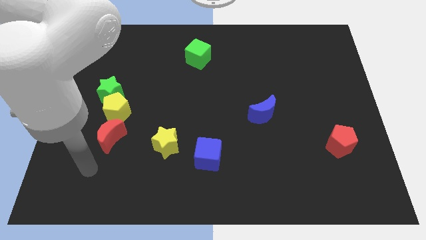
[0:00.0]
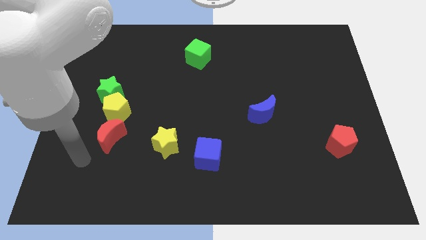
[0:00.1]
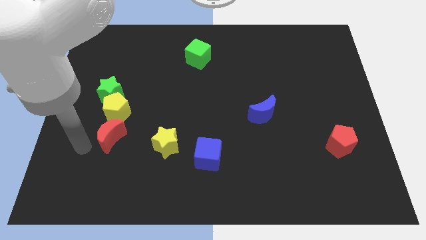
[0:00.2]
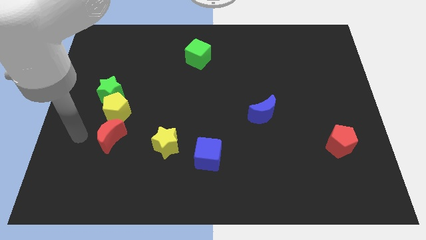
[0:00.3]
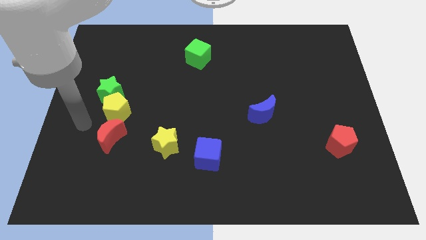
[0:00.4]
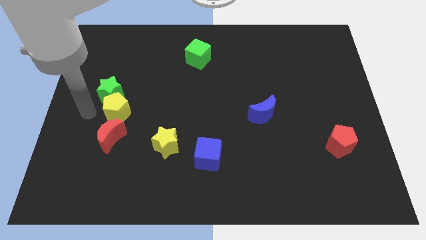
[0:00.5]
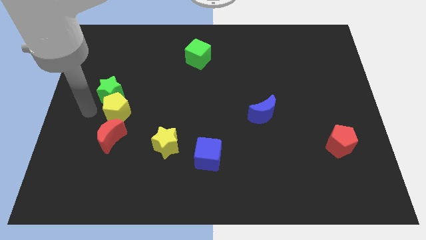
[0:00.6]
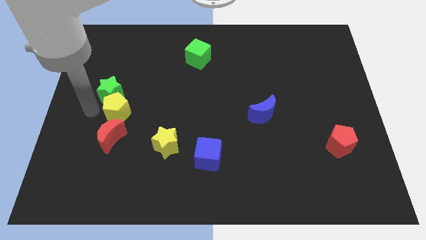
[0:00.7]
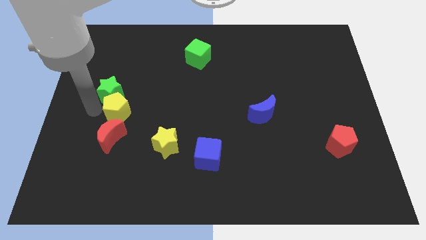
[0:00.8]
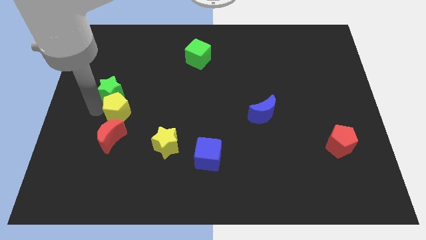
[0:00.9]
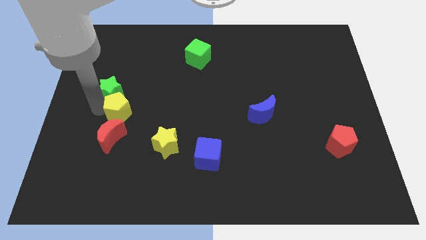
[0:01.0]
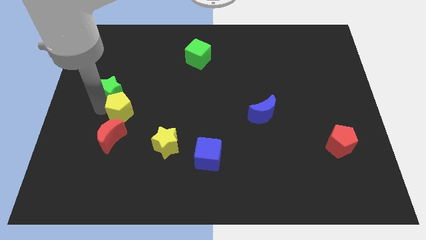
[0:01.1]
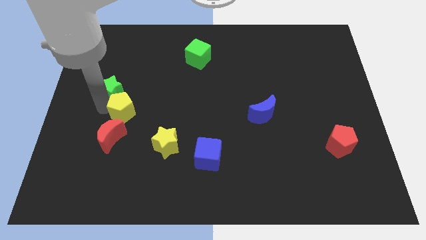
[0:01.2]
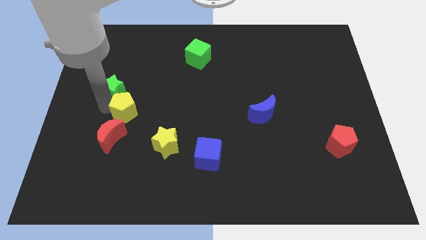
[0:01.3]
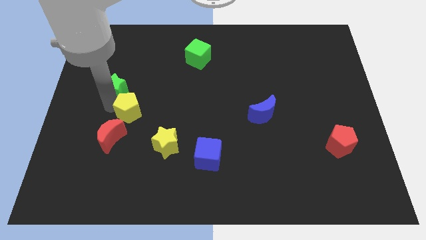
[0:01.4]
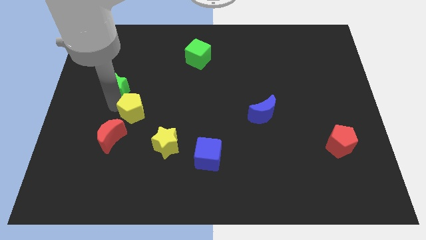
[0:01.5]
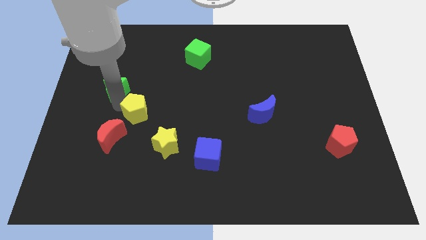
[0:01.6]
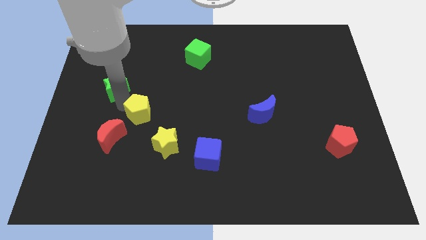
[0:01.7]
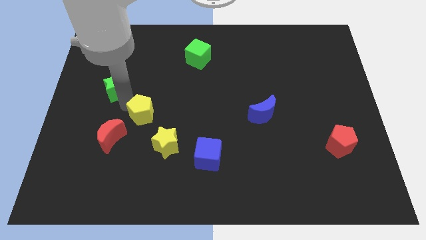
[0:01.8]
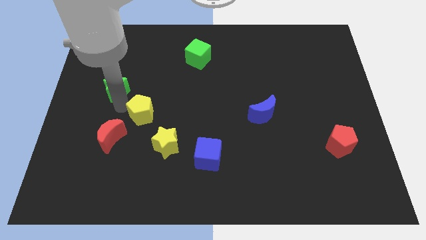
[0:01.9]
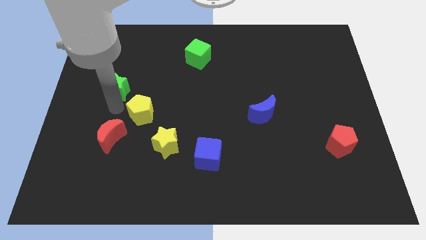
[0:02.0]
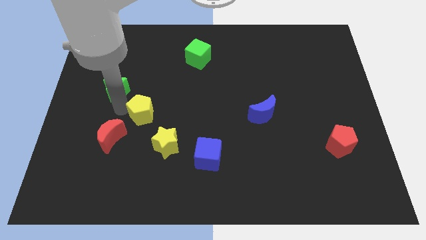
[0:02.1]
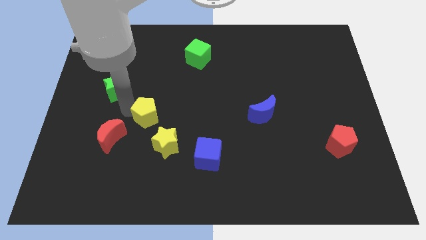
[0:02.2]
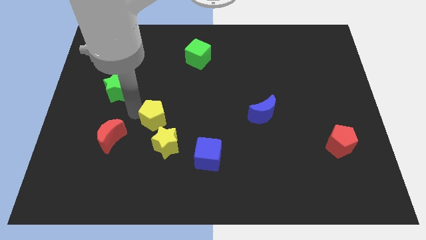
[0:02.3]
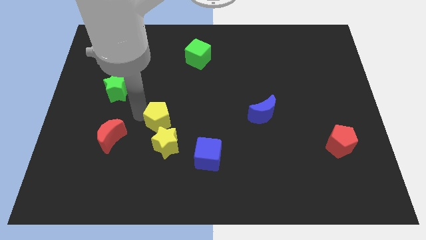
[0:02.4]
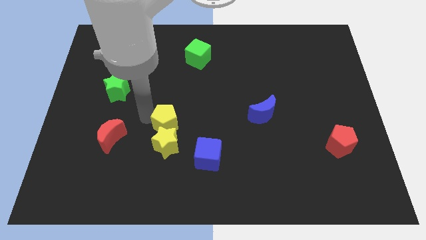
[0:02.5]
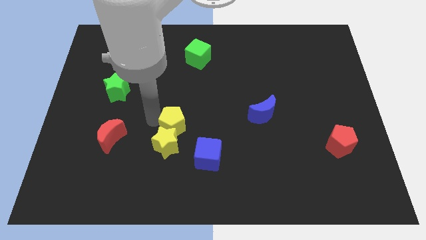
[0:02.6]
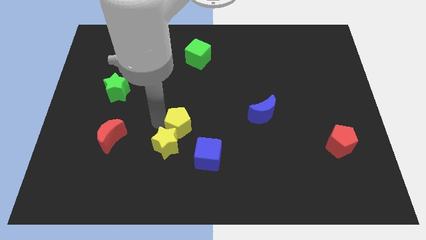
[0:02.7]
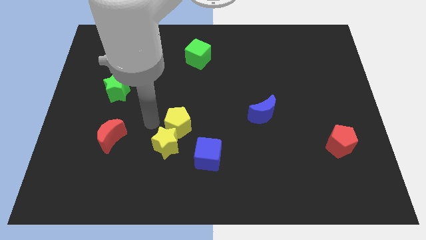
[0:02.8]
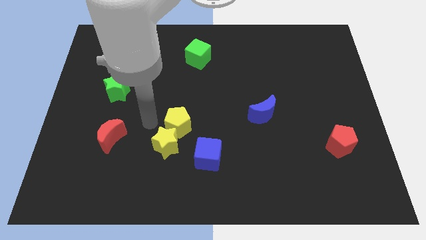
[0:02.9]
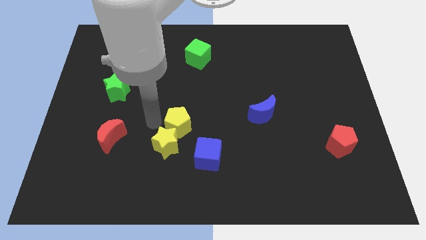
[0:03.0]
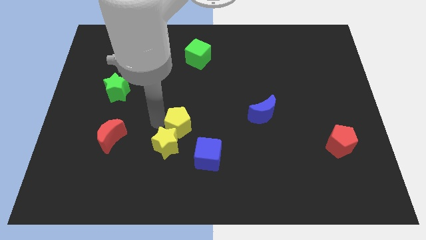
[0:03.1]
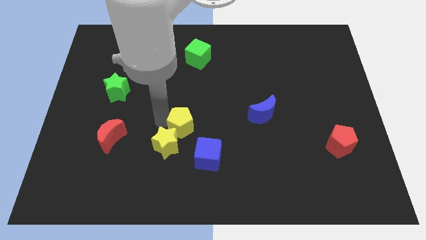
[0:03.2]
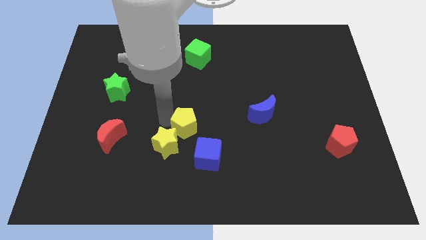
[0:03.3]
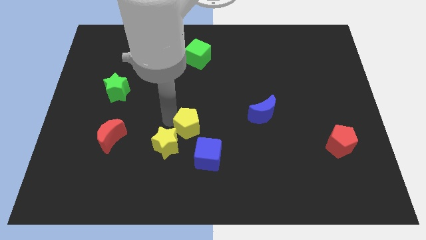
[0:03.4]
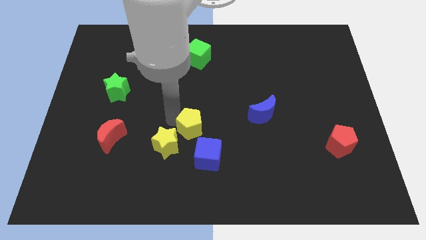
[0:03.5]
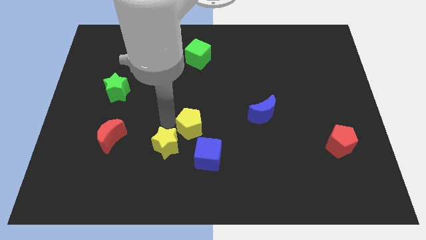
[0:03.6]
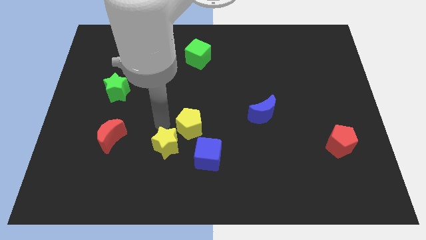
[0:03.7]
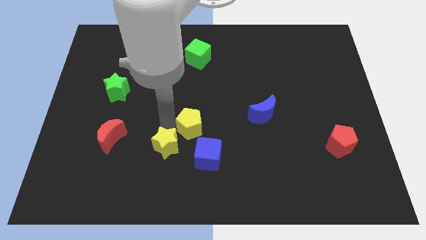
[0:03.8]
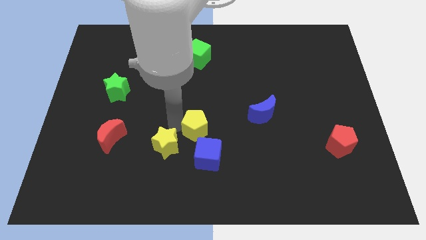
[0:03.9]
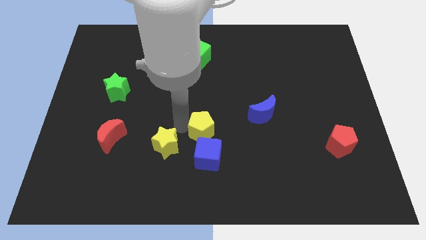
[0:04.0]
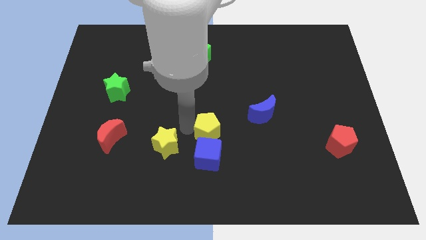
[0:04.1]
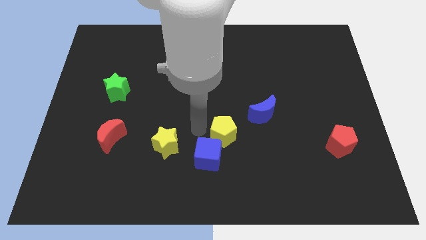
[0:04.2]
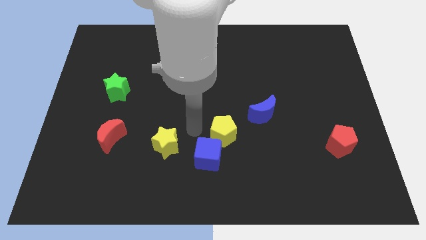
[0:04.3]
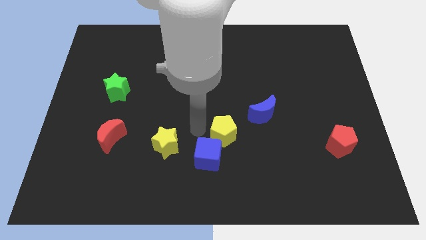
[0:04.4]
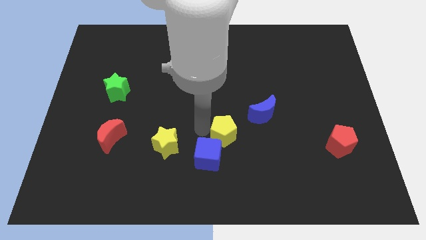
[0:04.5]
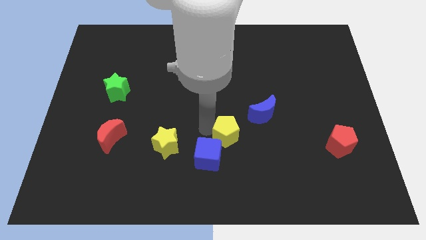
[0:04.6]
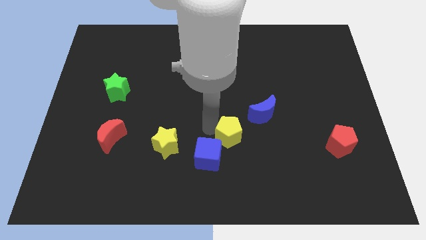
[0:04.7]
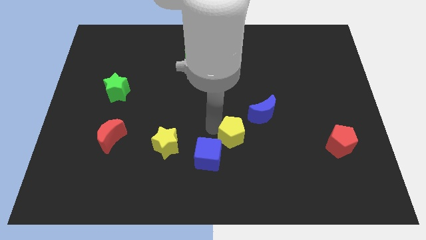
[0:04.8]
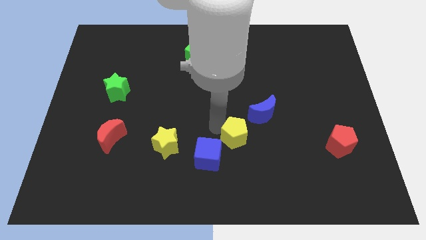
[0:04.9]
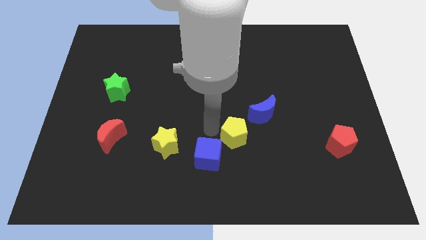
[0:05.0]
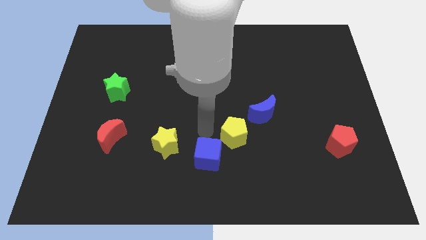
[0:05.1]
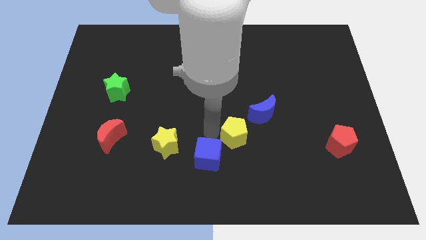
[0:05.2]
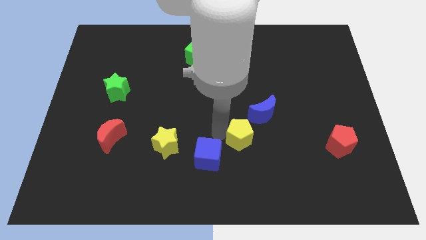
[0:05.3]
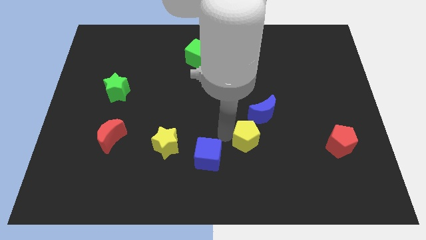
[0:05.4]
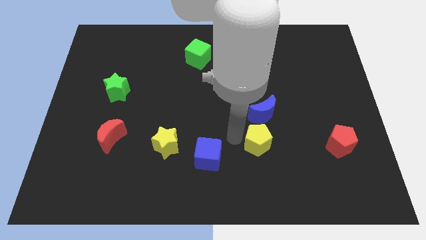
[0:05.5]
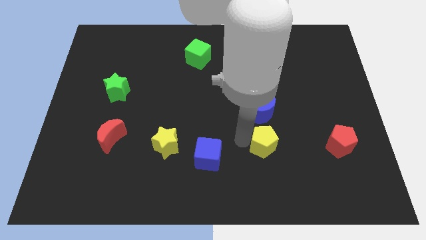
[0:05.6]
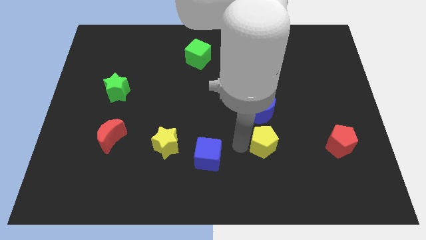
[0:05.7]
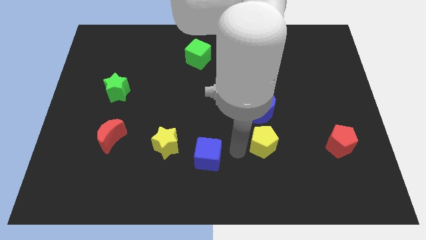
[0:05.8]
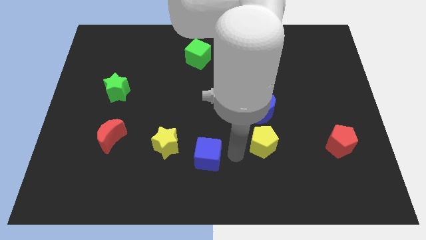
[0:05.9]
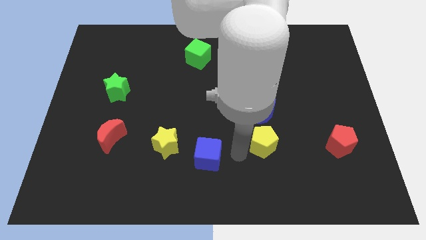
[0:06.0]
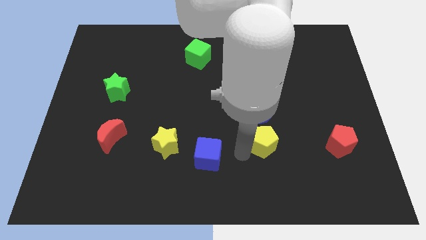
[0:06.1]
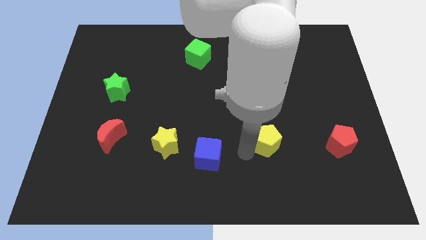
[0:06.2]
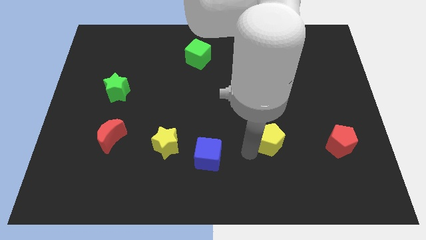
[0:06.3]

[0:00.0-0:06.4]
put the yellow pentagon to the bottom right of the blue moon

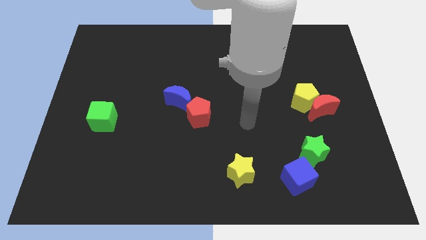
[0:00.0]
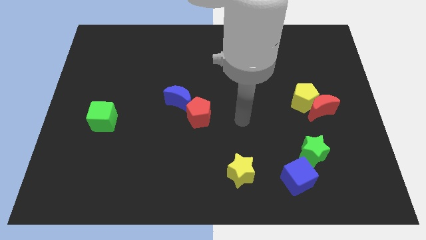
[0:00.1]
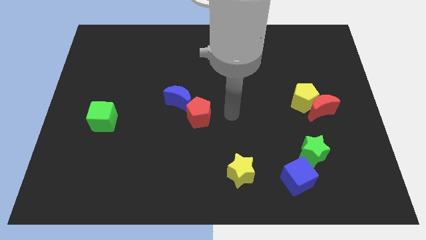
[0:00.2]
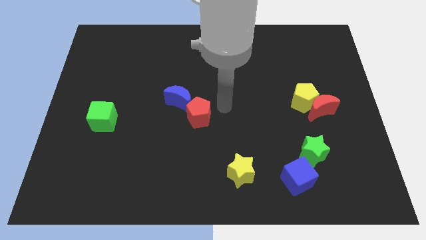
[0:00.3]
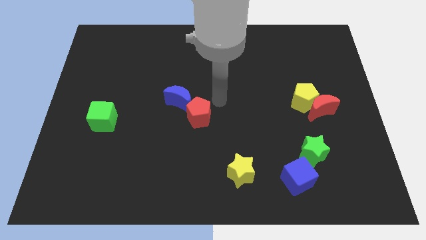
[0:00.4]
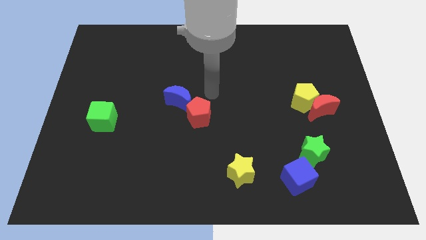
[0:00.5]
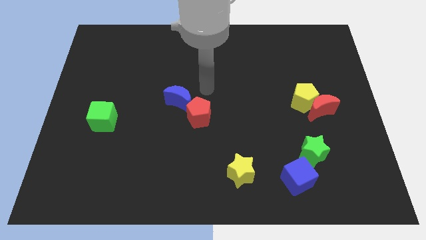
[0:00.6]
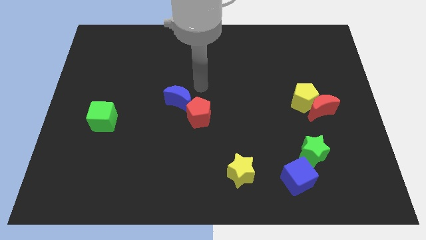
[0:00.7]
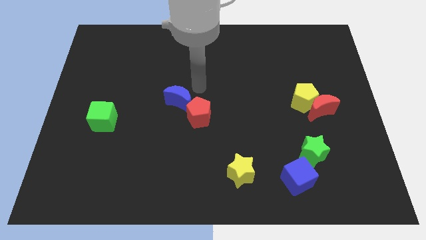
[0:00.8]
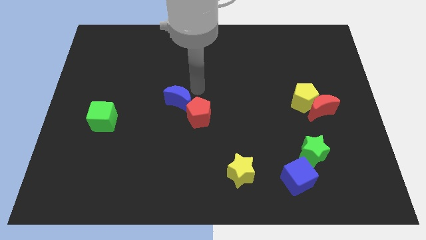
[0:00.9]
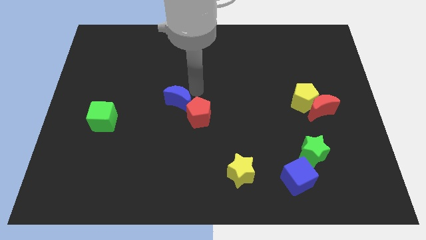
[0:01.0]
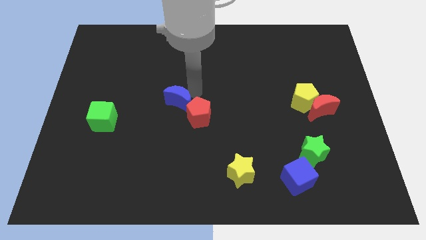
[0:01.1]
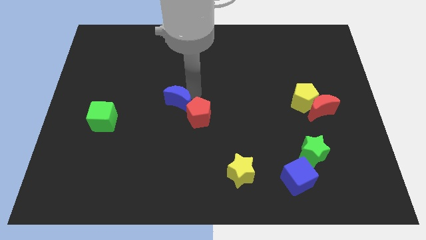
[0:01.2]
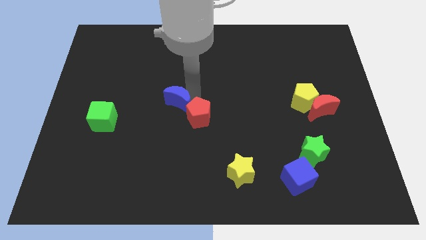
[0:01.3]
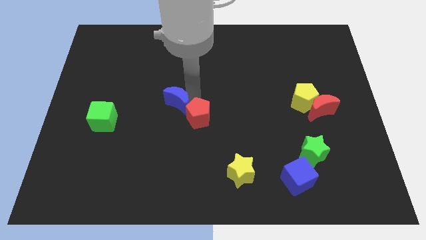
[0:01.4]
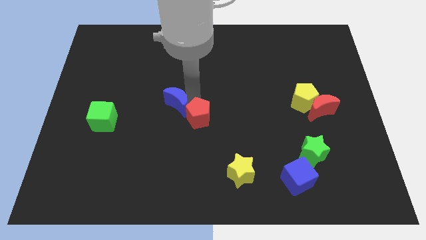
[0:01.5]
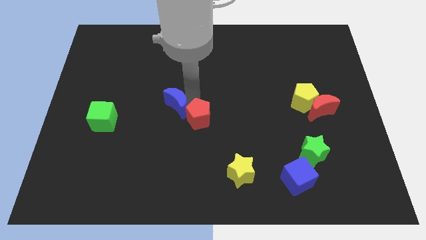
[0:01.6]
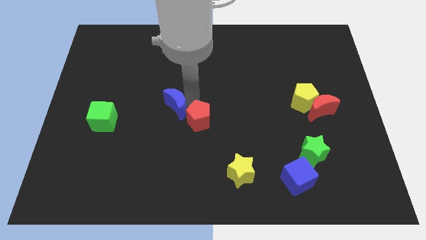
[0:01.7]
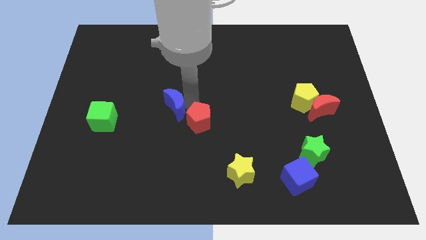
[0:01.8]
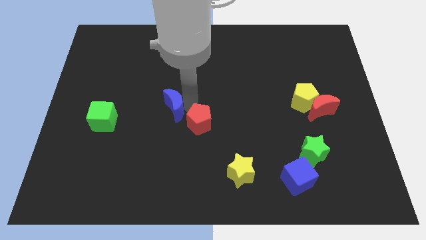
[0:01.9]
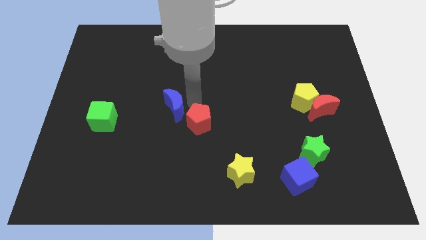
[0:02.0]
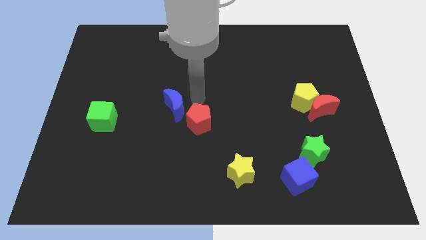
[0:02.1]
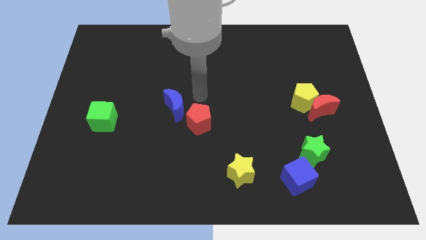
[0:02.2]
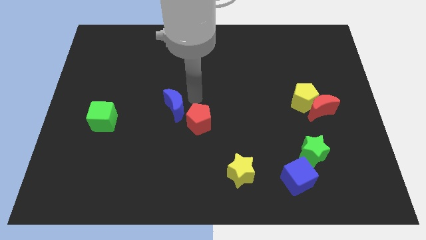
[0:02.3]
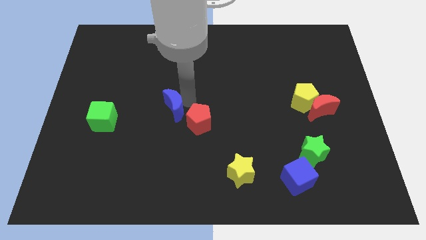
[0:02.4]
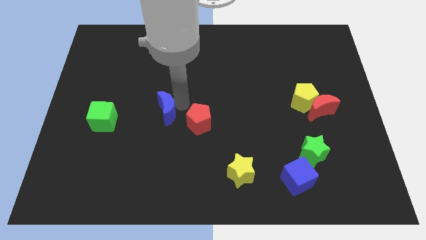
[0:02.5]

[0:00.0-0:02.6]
put the blue moon right of the green cube
